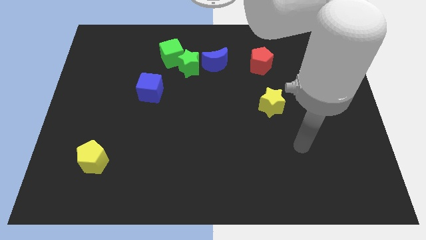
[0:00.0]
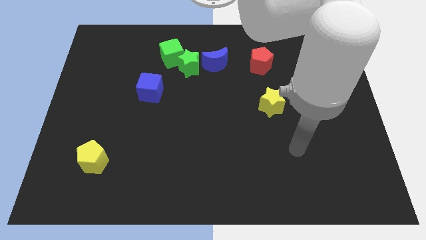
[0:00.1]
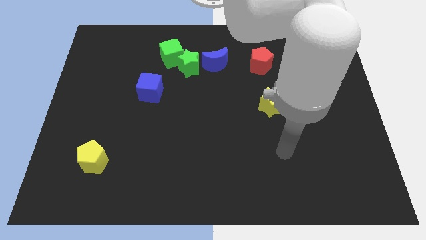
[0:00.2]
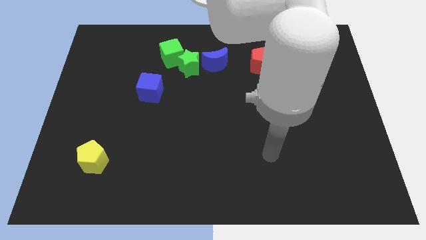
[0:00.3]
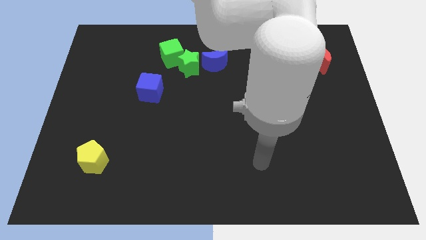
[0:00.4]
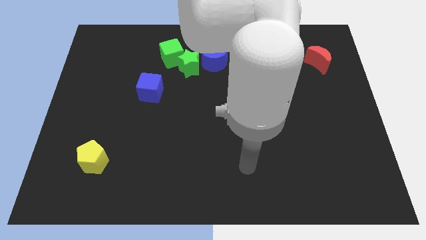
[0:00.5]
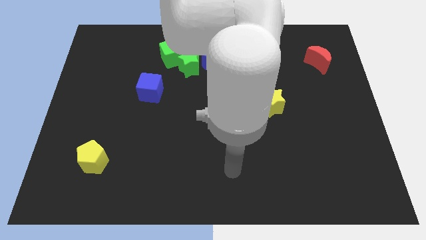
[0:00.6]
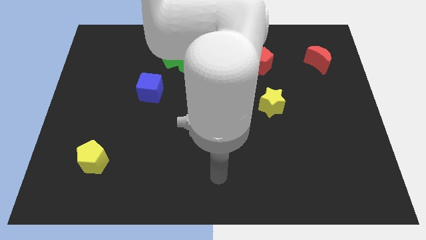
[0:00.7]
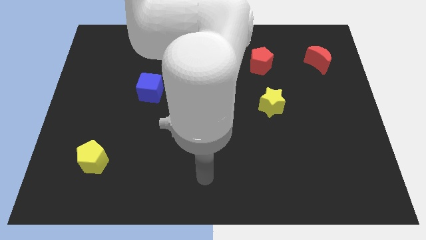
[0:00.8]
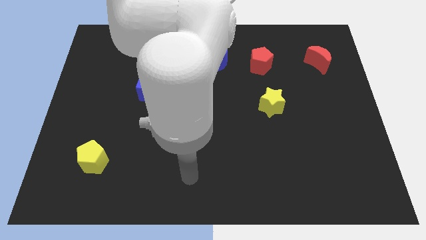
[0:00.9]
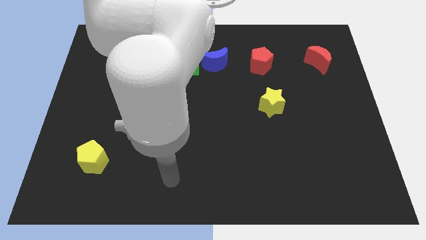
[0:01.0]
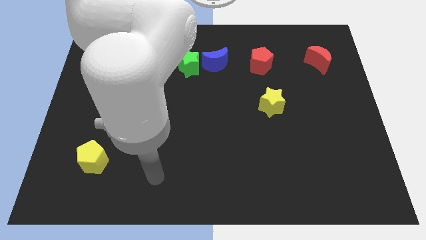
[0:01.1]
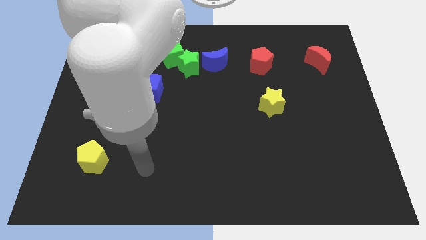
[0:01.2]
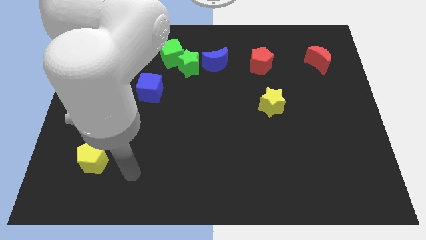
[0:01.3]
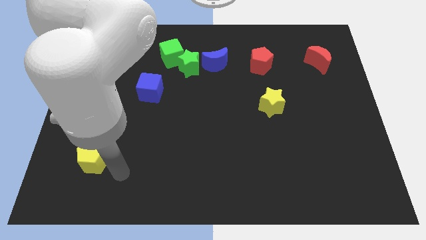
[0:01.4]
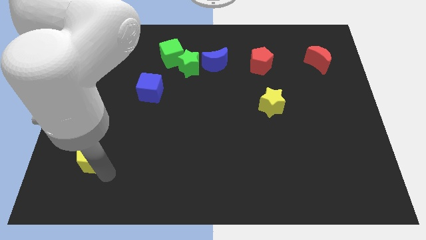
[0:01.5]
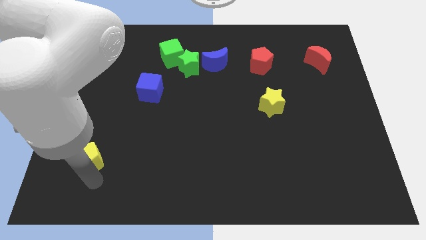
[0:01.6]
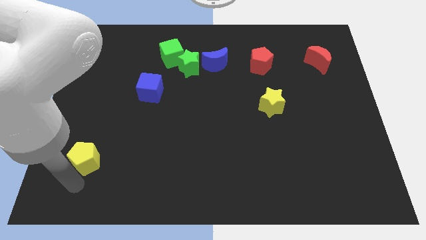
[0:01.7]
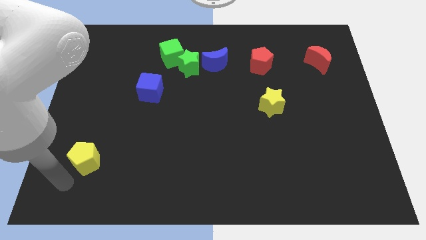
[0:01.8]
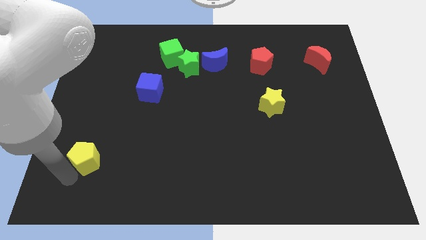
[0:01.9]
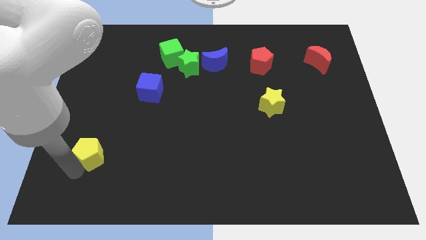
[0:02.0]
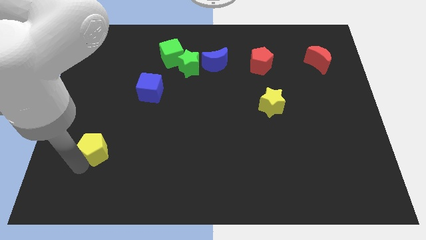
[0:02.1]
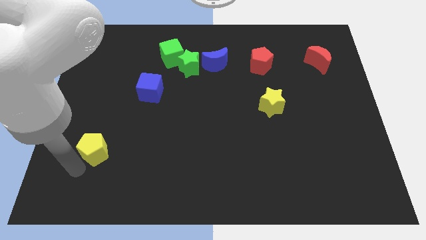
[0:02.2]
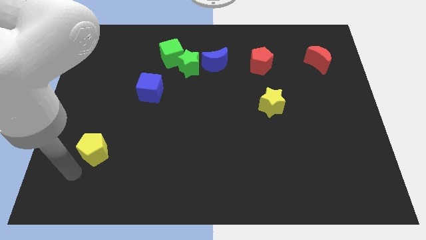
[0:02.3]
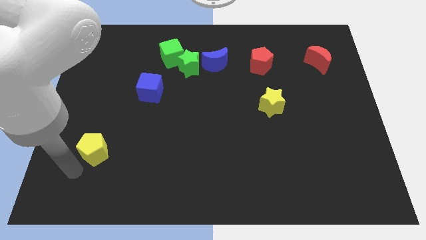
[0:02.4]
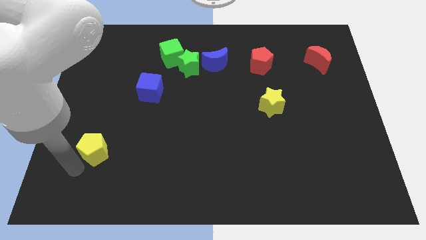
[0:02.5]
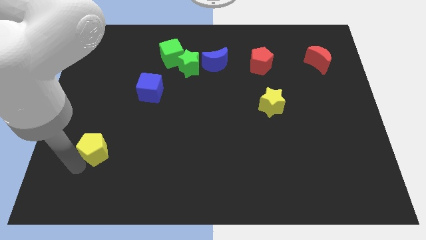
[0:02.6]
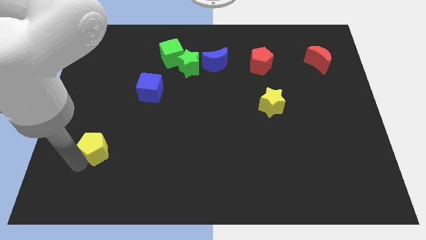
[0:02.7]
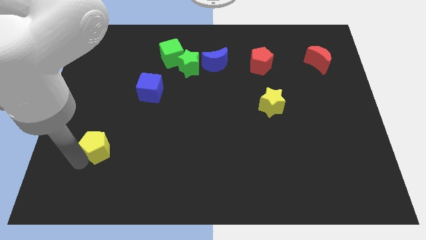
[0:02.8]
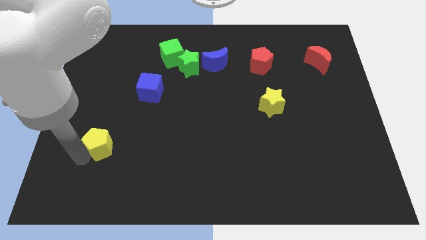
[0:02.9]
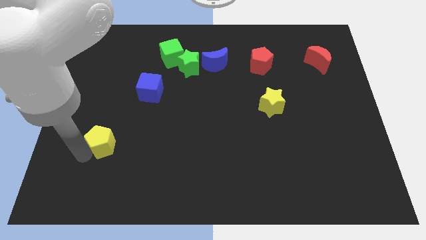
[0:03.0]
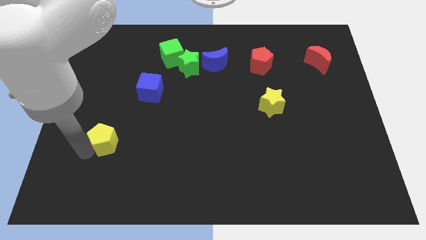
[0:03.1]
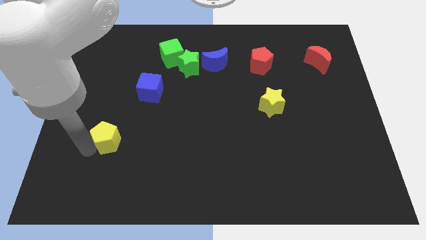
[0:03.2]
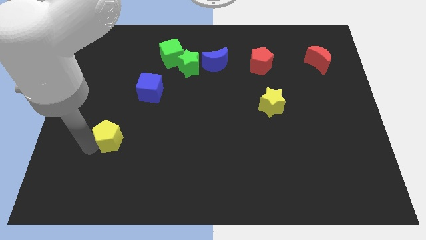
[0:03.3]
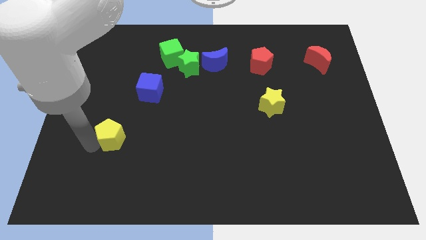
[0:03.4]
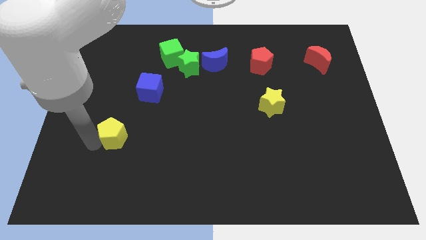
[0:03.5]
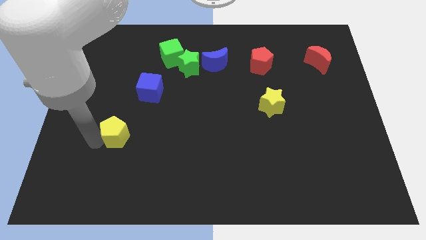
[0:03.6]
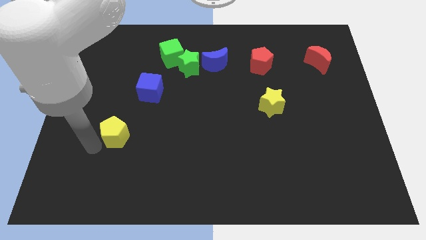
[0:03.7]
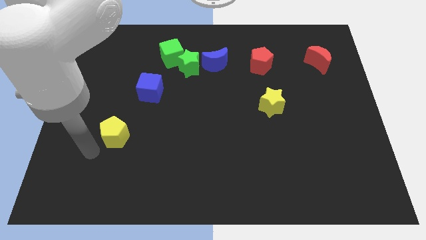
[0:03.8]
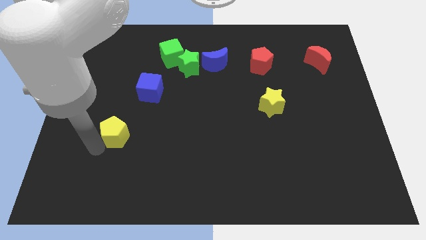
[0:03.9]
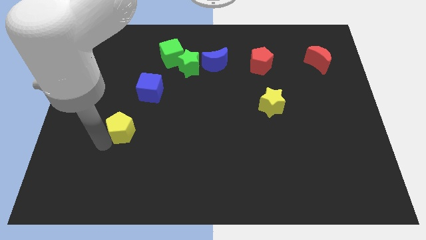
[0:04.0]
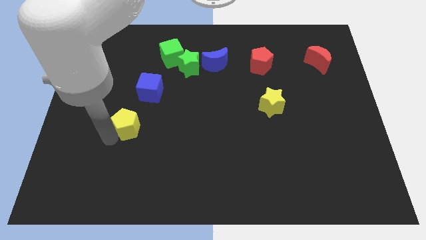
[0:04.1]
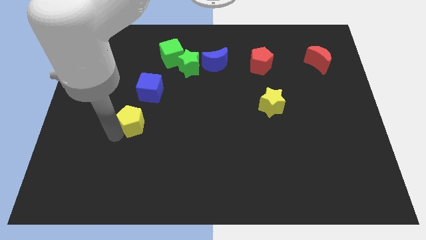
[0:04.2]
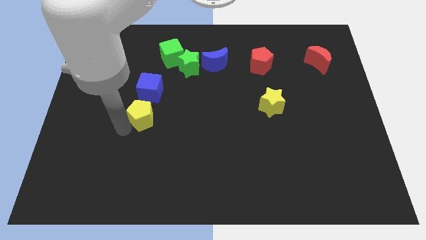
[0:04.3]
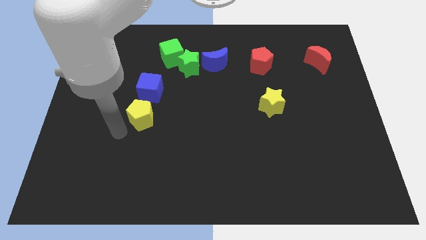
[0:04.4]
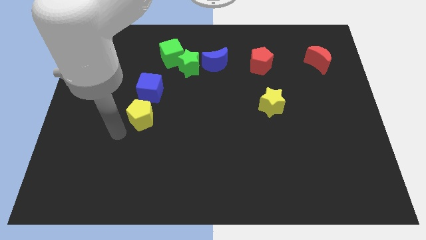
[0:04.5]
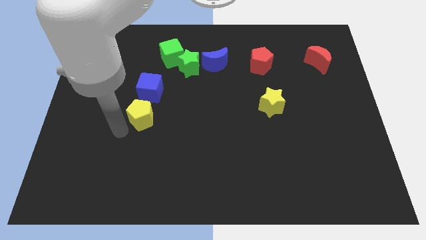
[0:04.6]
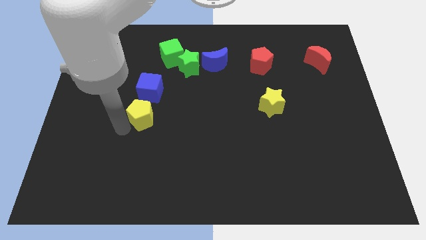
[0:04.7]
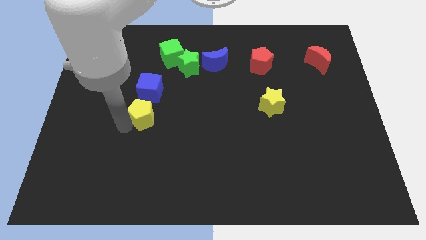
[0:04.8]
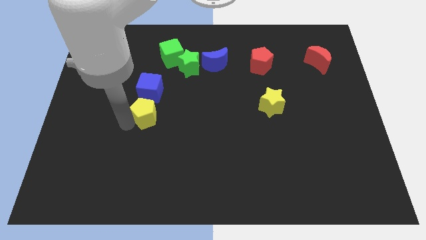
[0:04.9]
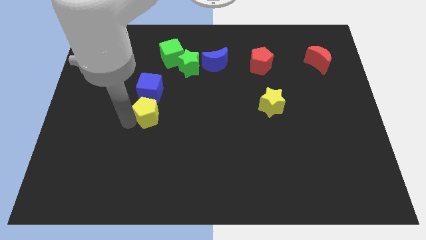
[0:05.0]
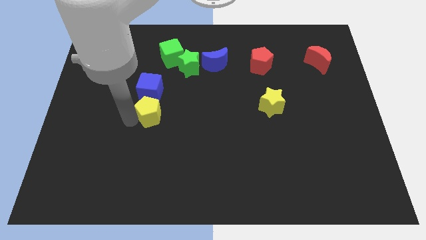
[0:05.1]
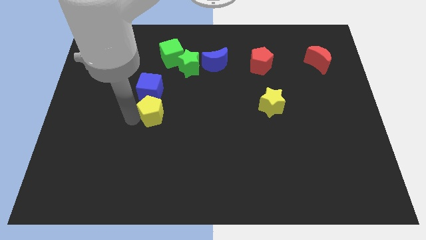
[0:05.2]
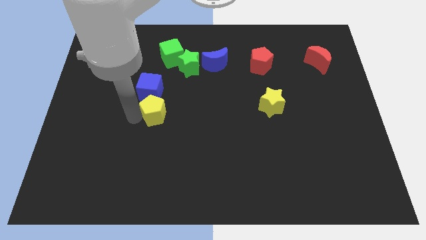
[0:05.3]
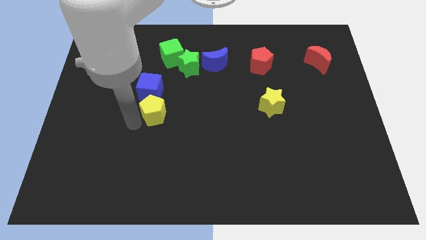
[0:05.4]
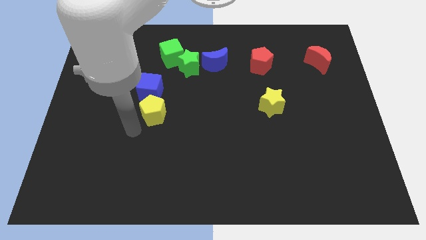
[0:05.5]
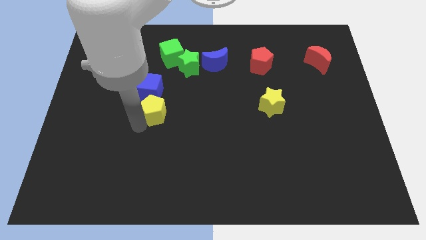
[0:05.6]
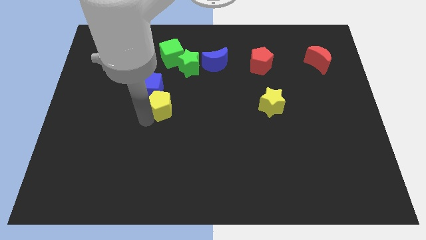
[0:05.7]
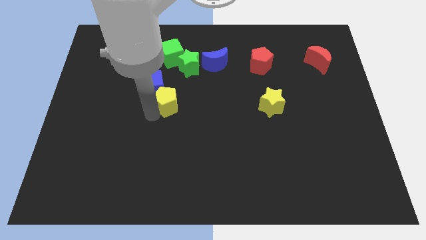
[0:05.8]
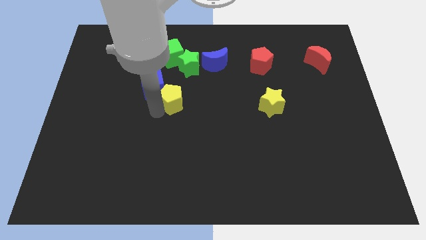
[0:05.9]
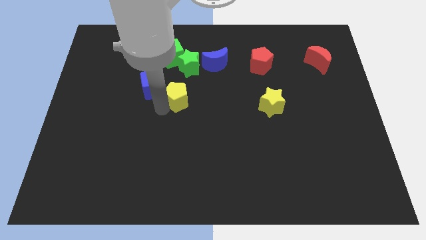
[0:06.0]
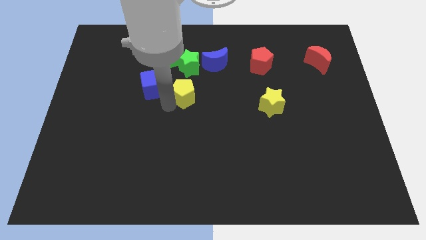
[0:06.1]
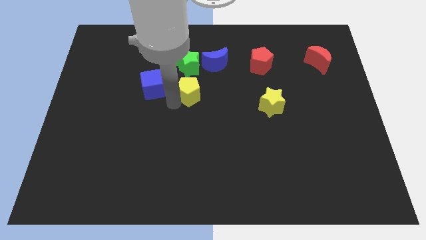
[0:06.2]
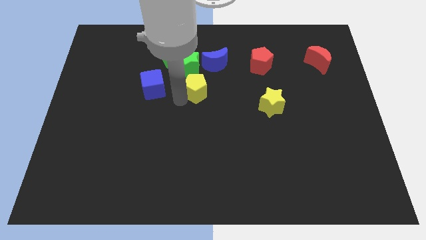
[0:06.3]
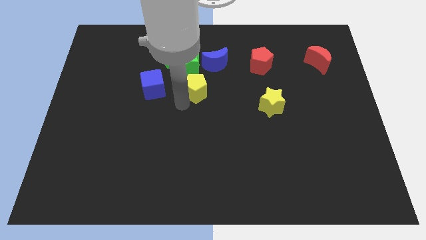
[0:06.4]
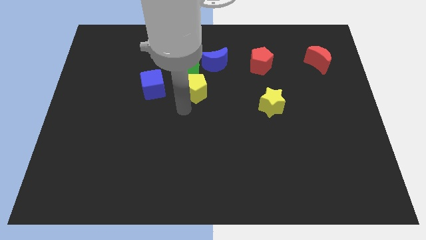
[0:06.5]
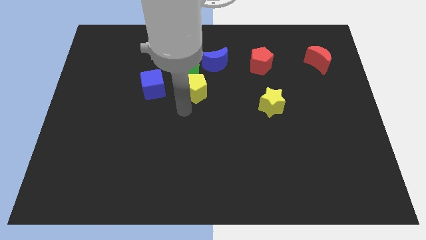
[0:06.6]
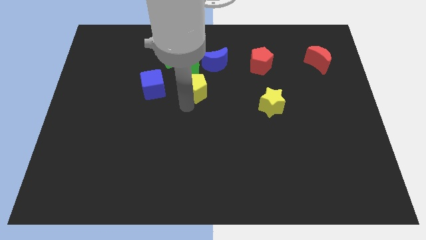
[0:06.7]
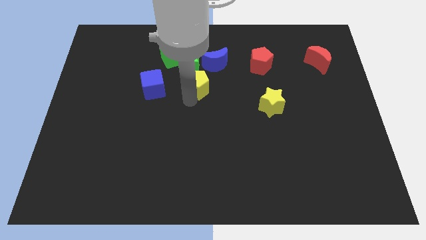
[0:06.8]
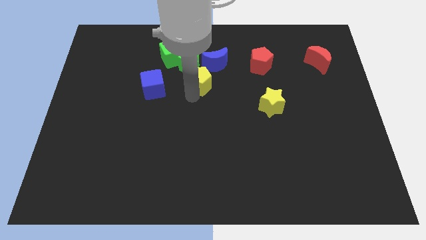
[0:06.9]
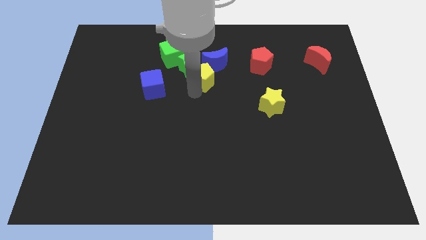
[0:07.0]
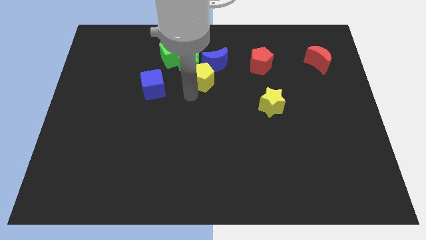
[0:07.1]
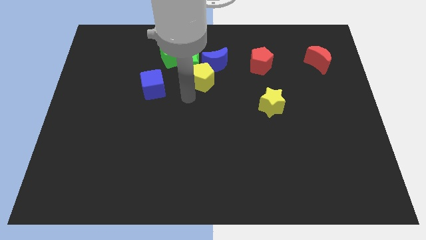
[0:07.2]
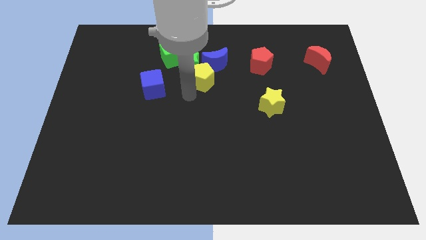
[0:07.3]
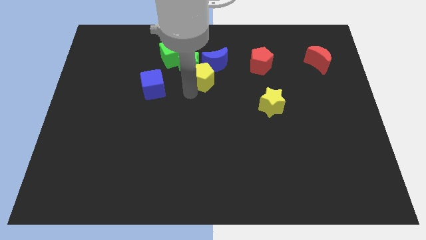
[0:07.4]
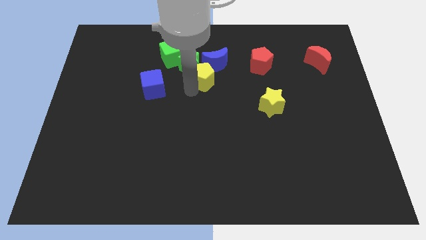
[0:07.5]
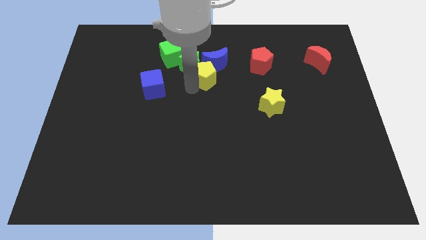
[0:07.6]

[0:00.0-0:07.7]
move the yellow pentagon towards the blue moon
